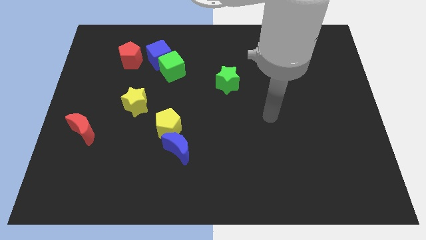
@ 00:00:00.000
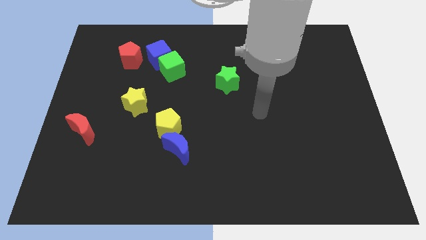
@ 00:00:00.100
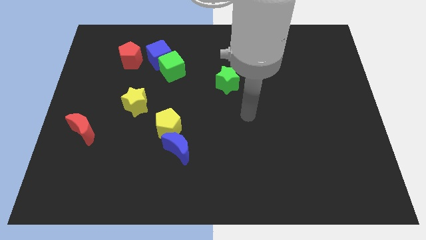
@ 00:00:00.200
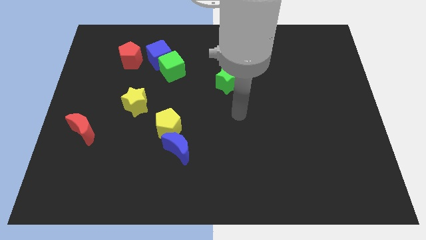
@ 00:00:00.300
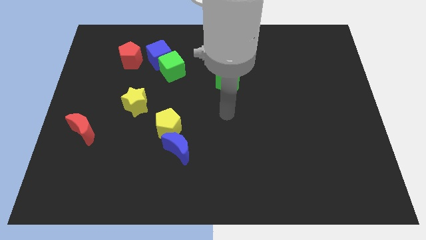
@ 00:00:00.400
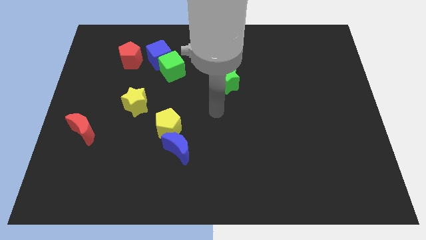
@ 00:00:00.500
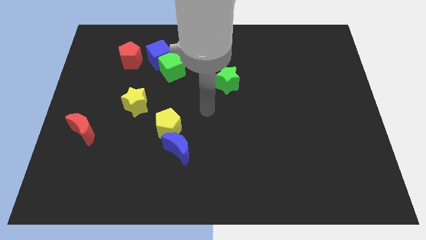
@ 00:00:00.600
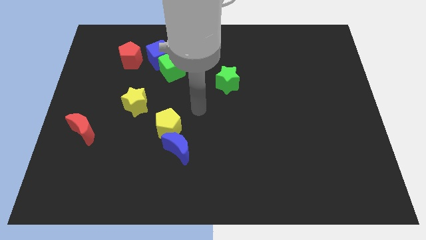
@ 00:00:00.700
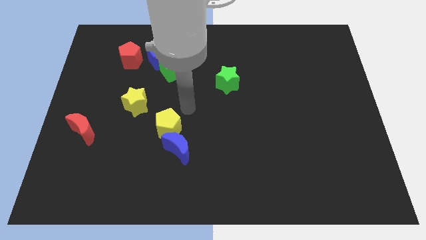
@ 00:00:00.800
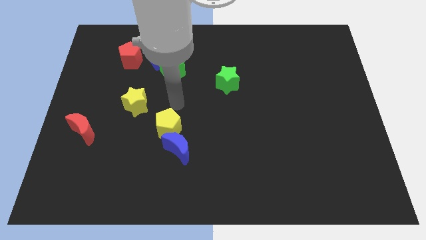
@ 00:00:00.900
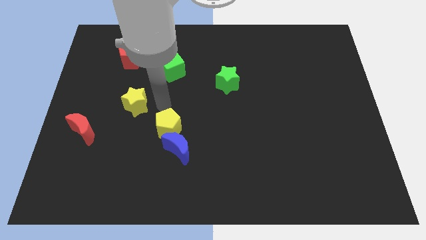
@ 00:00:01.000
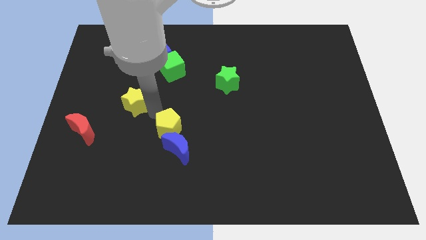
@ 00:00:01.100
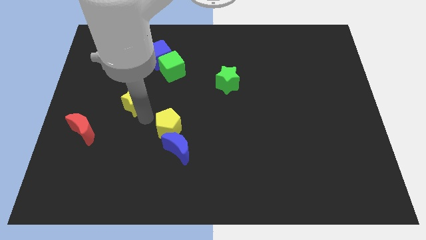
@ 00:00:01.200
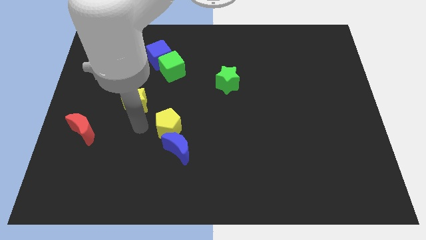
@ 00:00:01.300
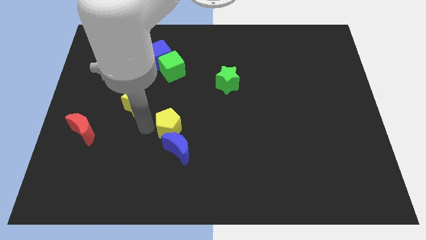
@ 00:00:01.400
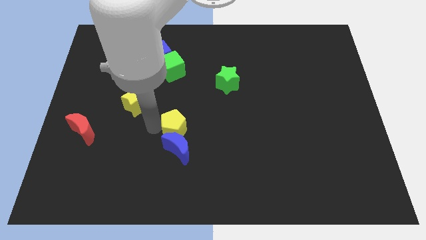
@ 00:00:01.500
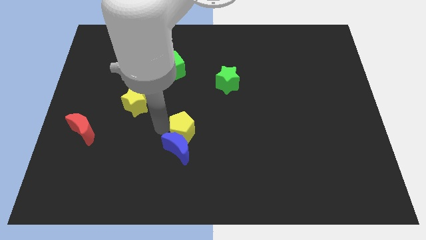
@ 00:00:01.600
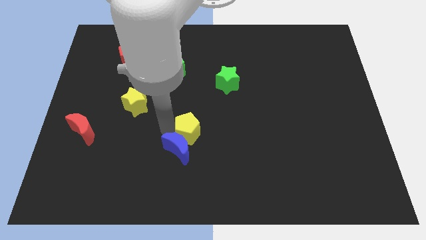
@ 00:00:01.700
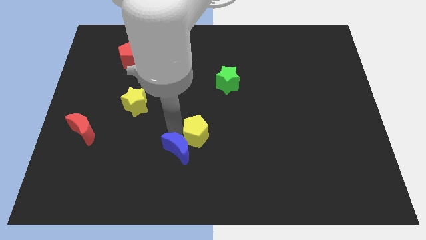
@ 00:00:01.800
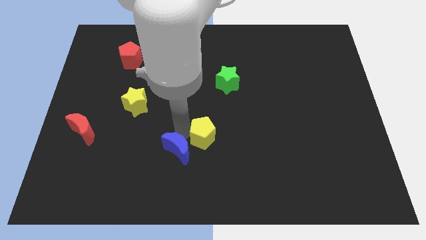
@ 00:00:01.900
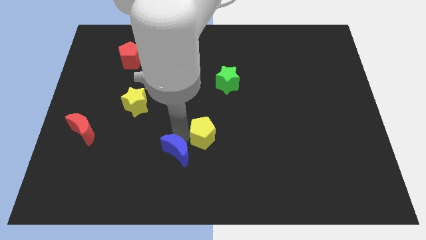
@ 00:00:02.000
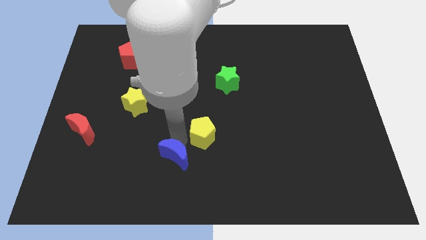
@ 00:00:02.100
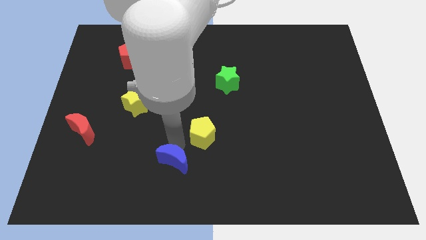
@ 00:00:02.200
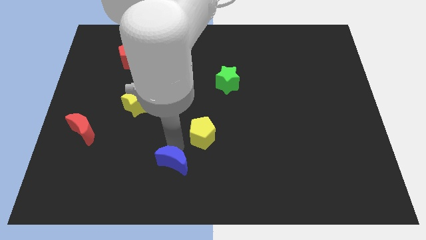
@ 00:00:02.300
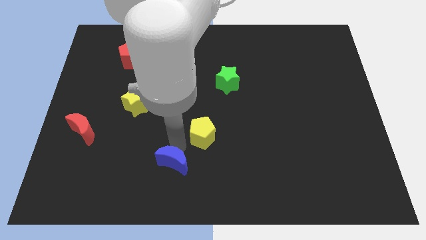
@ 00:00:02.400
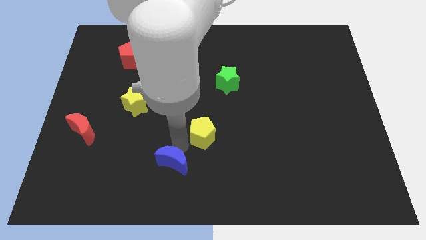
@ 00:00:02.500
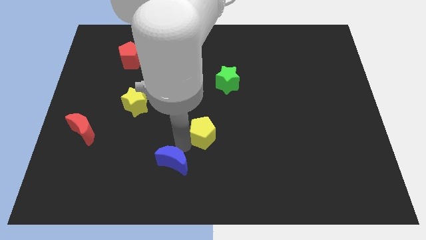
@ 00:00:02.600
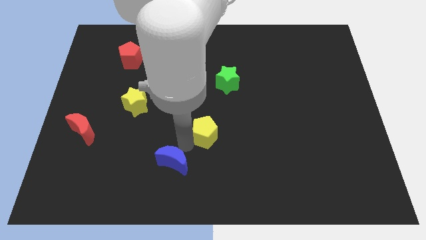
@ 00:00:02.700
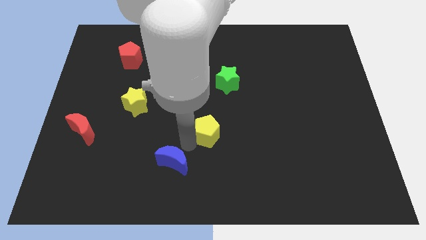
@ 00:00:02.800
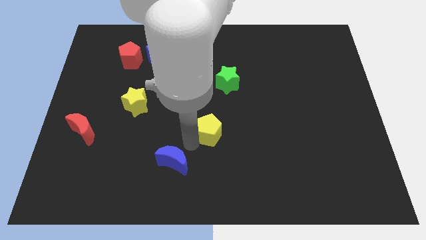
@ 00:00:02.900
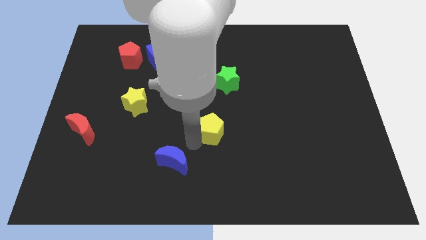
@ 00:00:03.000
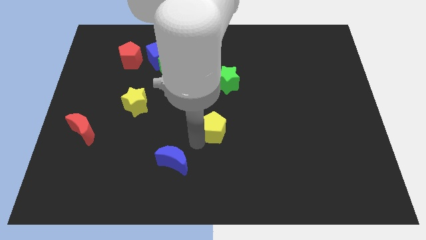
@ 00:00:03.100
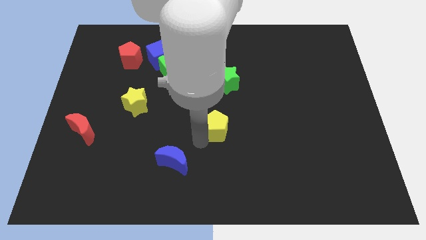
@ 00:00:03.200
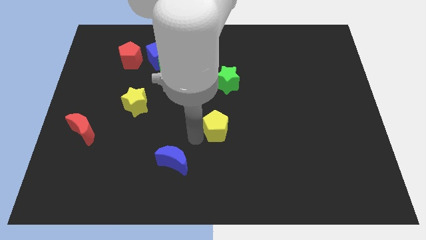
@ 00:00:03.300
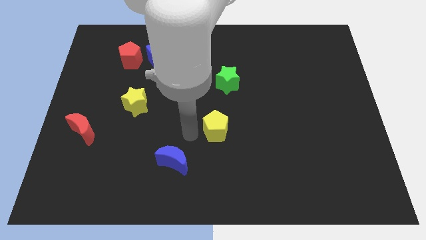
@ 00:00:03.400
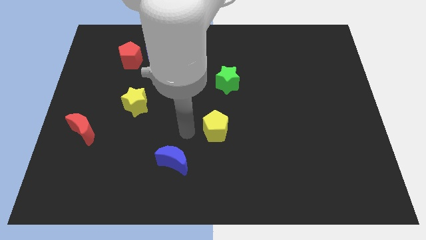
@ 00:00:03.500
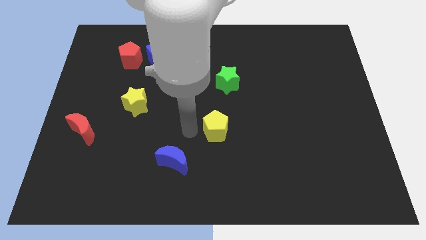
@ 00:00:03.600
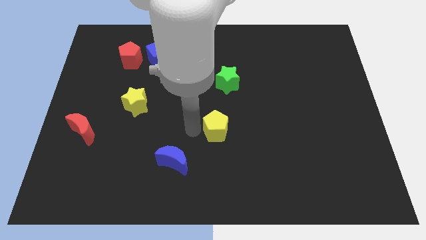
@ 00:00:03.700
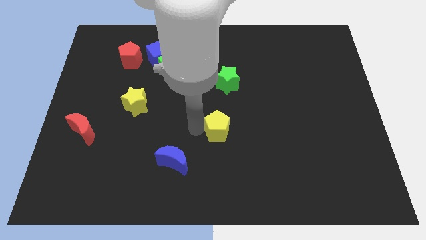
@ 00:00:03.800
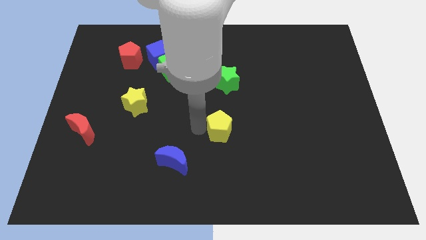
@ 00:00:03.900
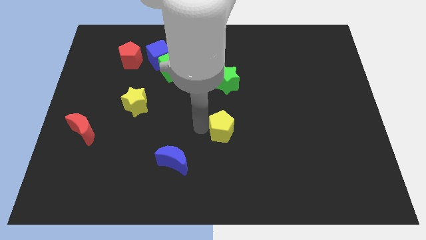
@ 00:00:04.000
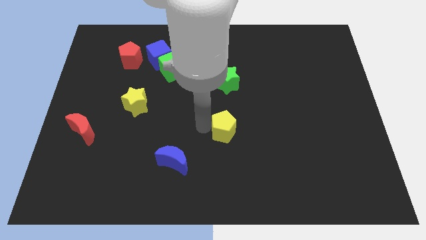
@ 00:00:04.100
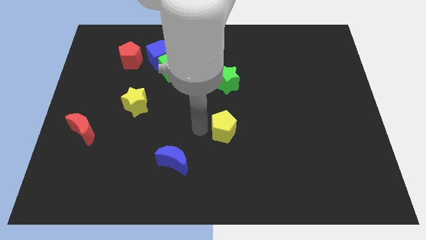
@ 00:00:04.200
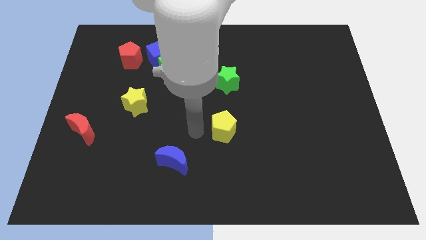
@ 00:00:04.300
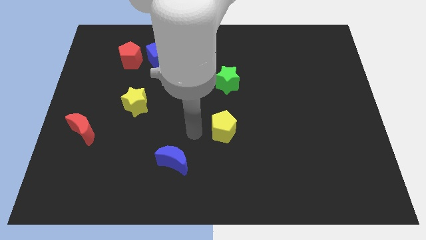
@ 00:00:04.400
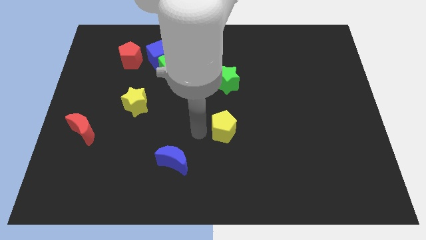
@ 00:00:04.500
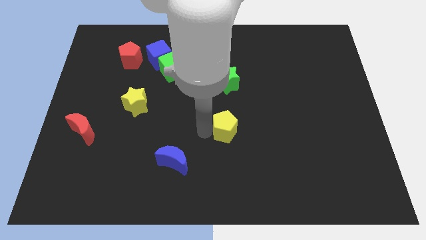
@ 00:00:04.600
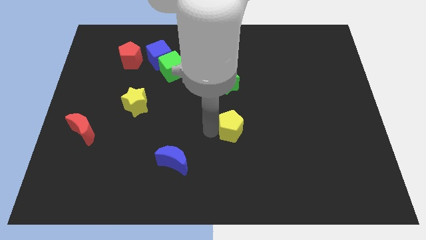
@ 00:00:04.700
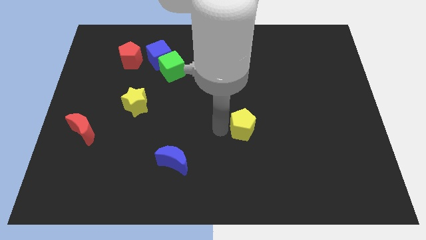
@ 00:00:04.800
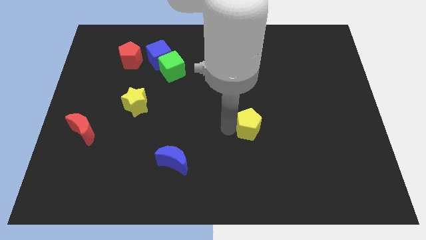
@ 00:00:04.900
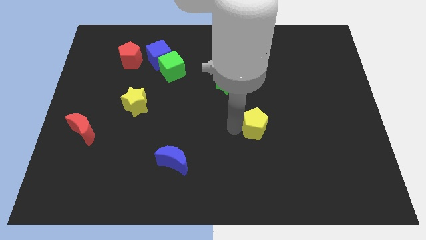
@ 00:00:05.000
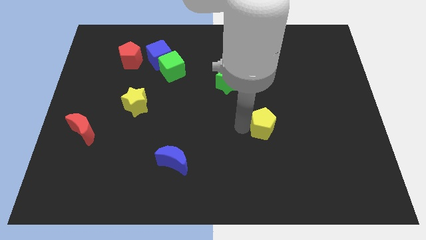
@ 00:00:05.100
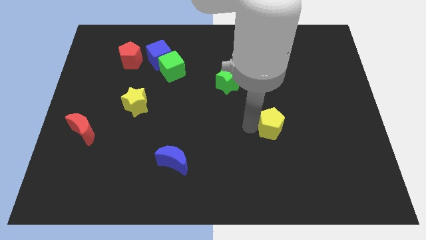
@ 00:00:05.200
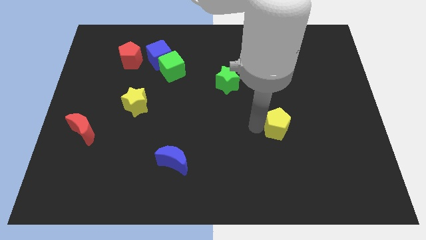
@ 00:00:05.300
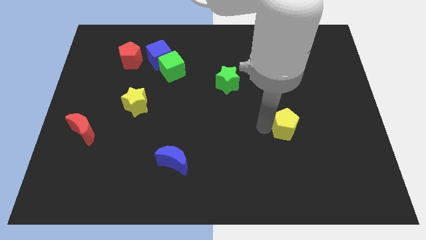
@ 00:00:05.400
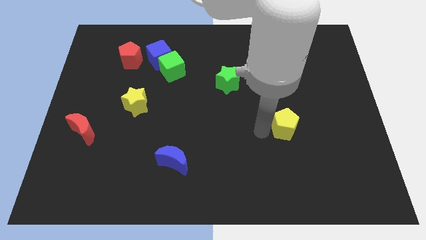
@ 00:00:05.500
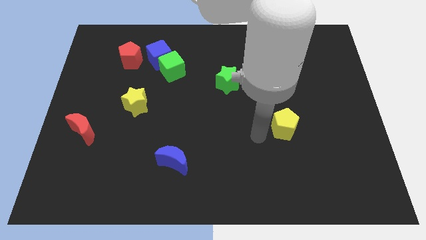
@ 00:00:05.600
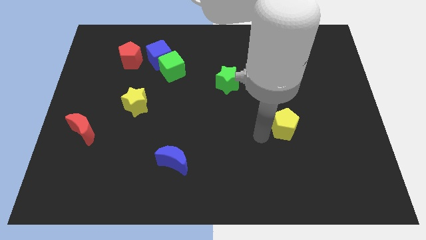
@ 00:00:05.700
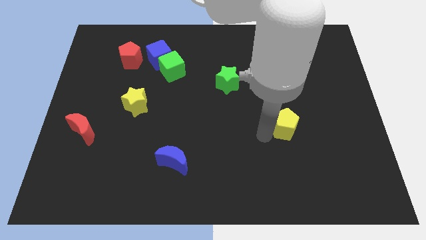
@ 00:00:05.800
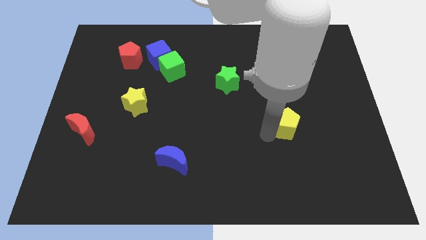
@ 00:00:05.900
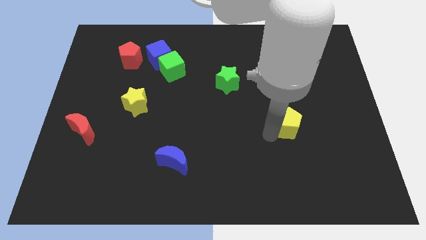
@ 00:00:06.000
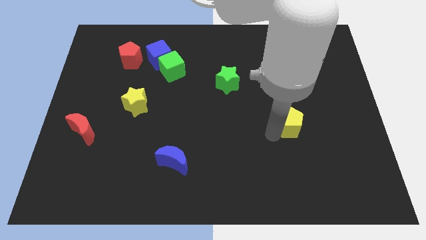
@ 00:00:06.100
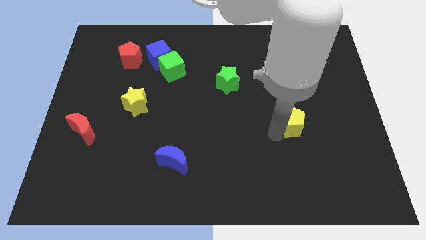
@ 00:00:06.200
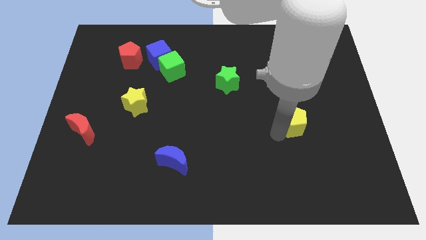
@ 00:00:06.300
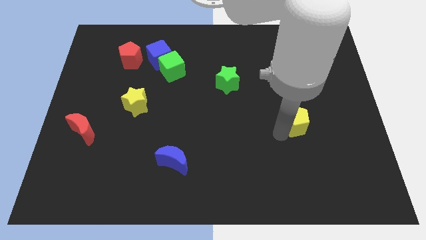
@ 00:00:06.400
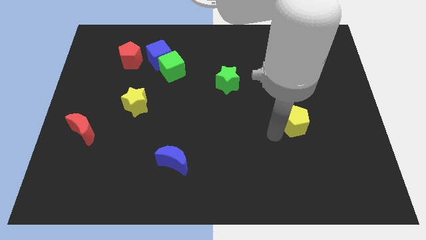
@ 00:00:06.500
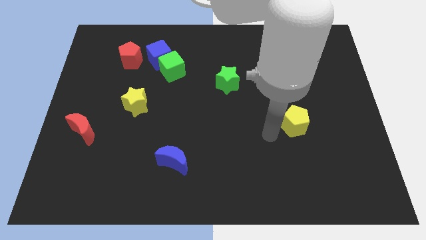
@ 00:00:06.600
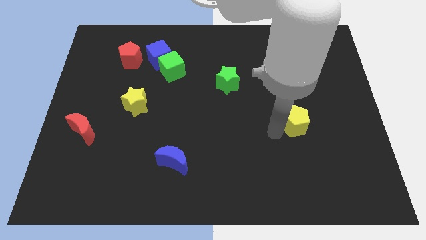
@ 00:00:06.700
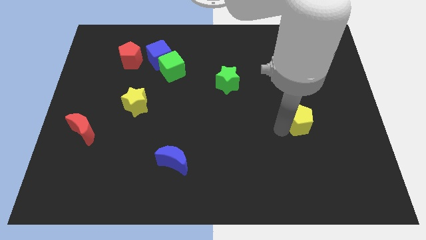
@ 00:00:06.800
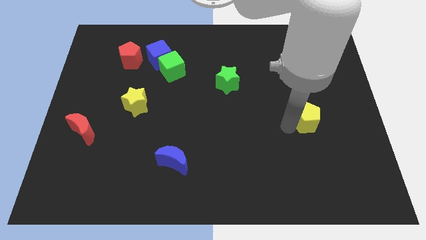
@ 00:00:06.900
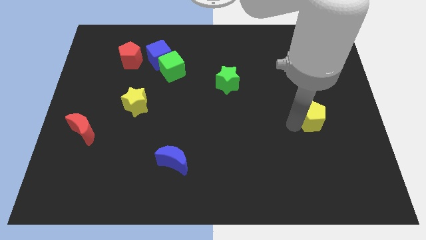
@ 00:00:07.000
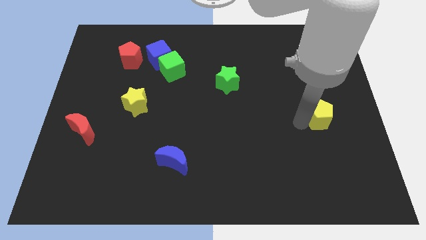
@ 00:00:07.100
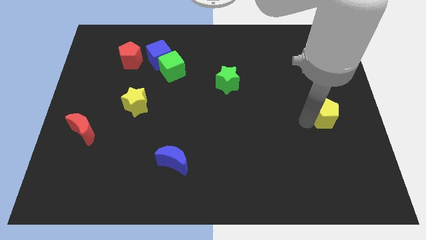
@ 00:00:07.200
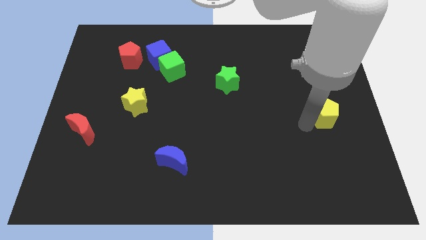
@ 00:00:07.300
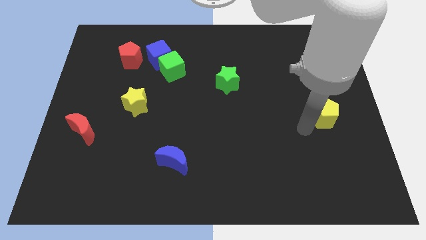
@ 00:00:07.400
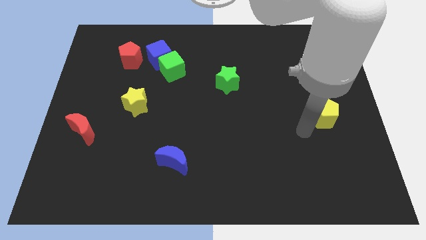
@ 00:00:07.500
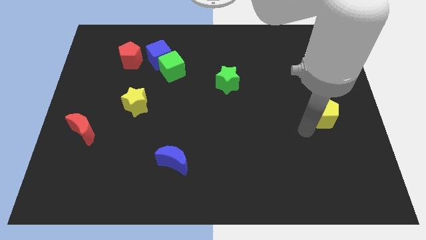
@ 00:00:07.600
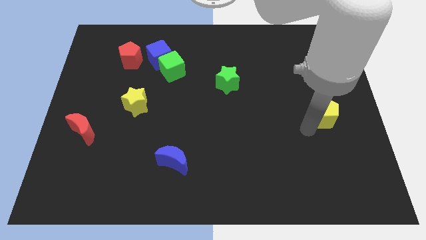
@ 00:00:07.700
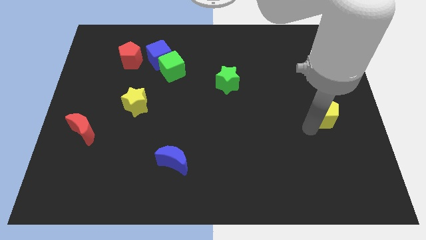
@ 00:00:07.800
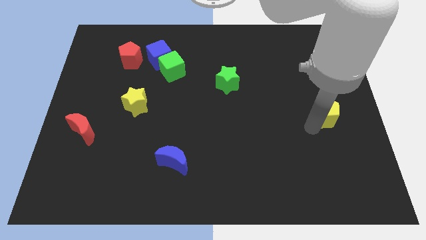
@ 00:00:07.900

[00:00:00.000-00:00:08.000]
move the yellow pentagon to the right side of the board
